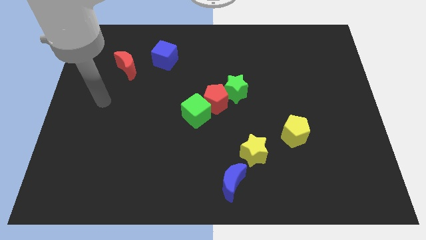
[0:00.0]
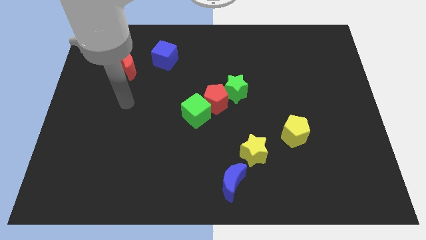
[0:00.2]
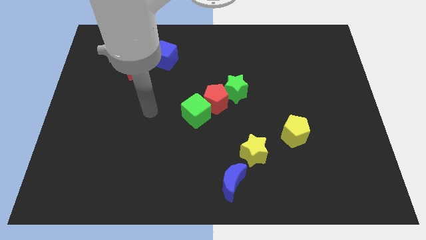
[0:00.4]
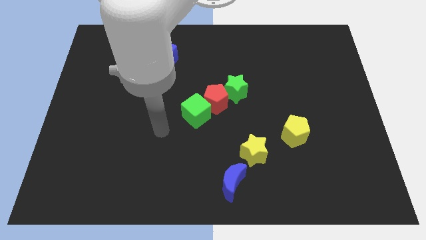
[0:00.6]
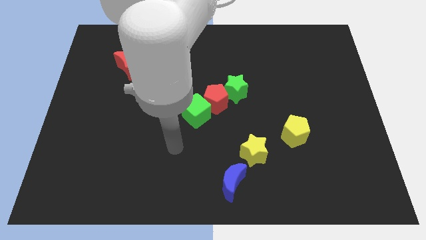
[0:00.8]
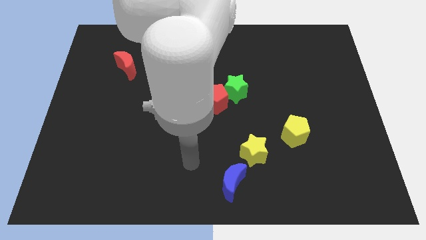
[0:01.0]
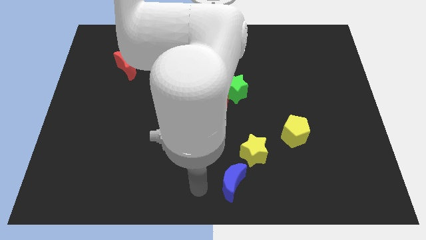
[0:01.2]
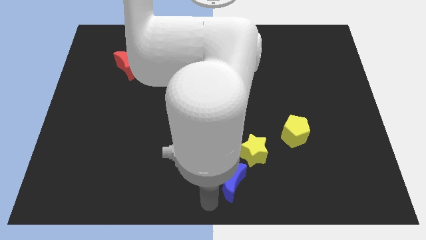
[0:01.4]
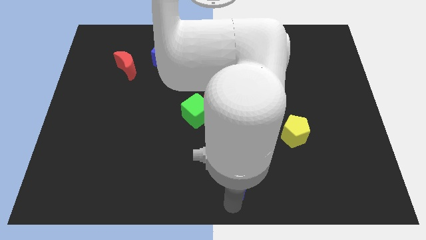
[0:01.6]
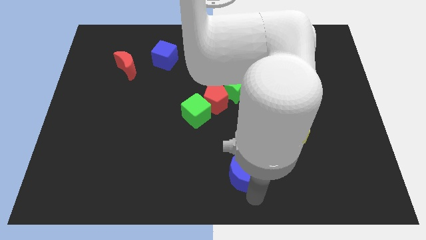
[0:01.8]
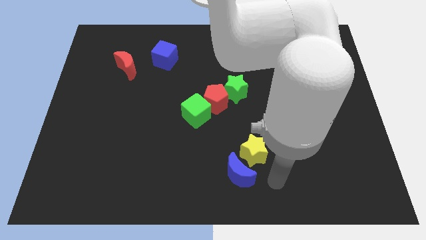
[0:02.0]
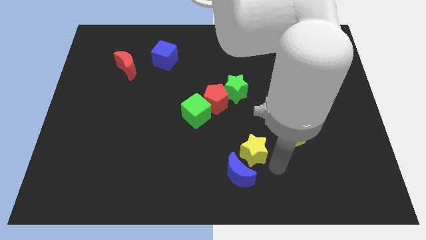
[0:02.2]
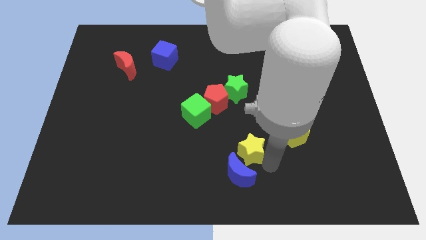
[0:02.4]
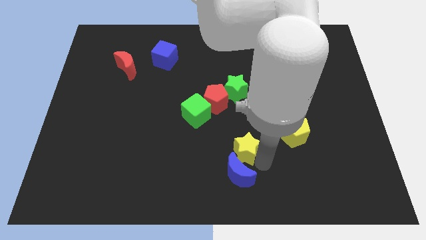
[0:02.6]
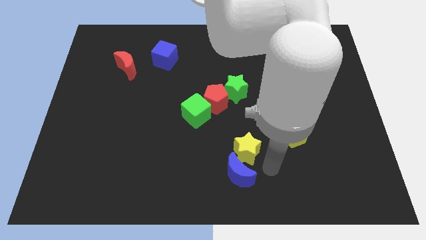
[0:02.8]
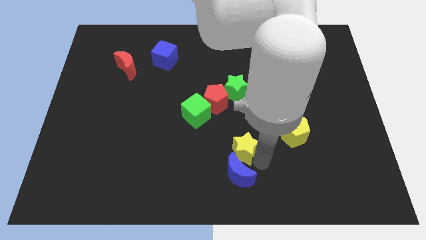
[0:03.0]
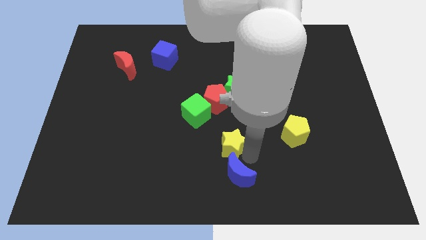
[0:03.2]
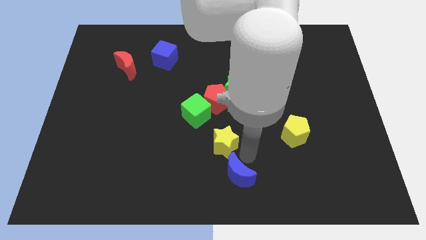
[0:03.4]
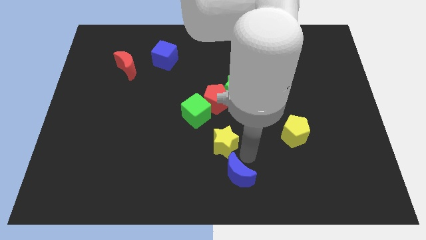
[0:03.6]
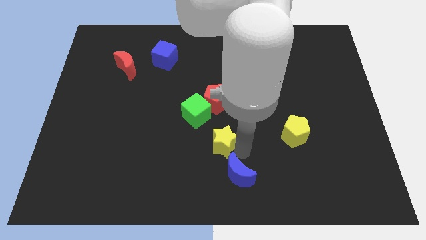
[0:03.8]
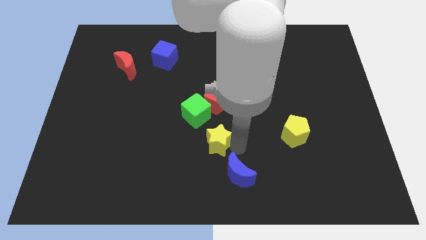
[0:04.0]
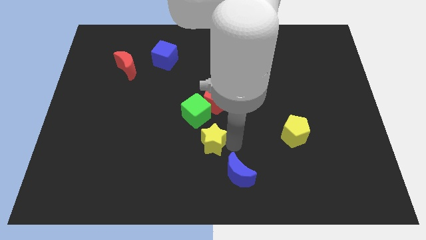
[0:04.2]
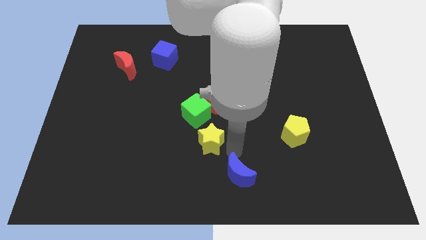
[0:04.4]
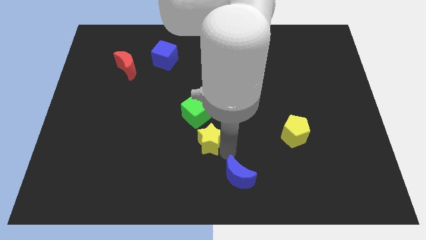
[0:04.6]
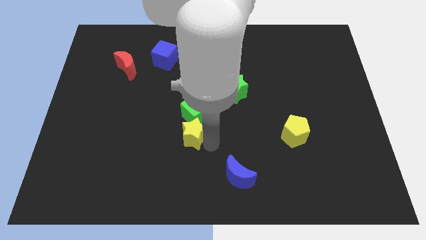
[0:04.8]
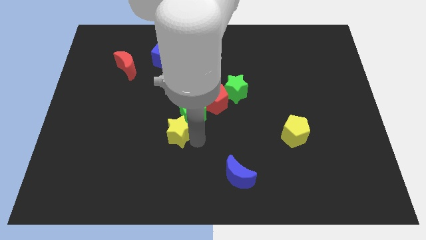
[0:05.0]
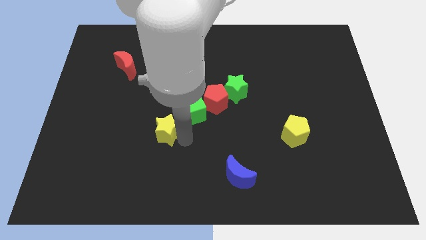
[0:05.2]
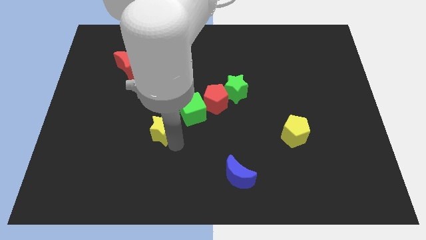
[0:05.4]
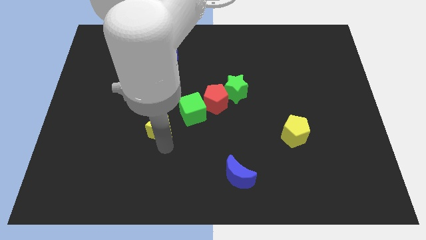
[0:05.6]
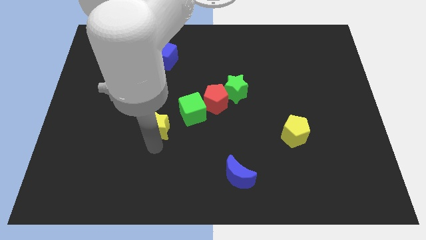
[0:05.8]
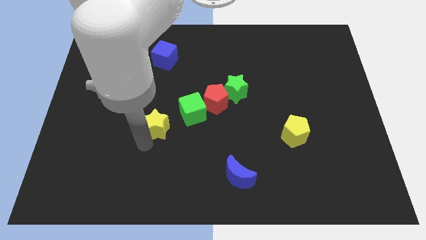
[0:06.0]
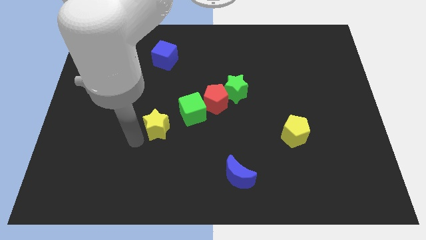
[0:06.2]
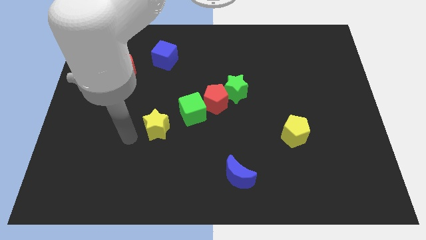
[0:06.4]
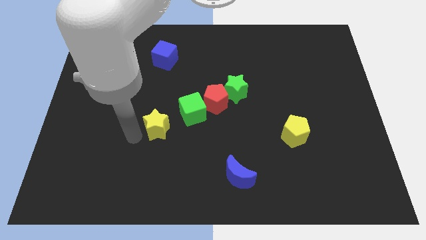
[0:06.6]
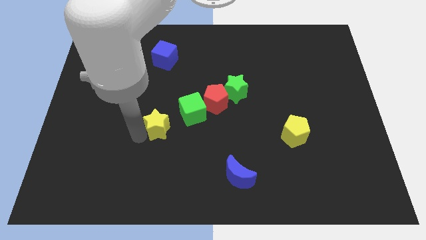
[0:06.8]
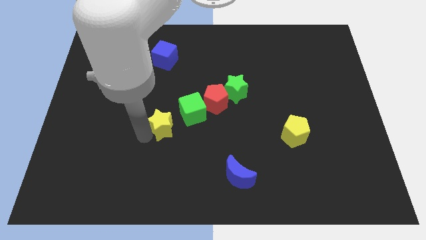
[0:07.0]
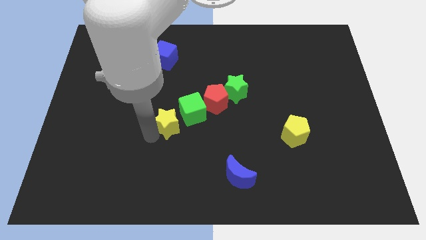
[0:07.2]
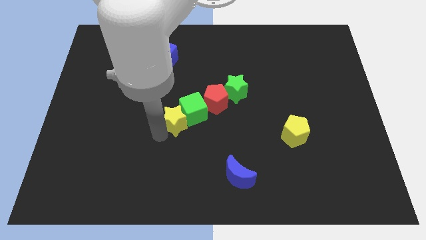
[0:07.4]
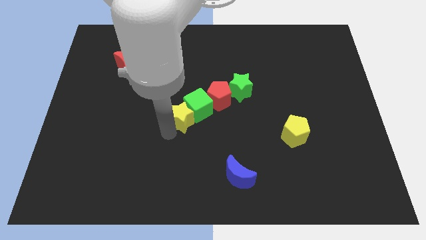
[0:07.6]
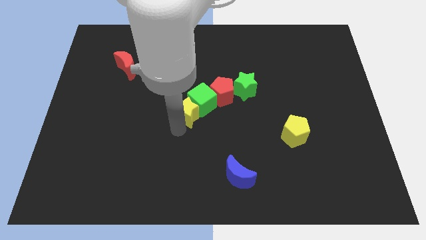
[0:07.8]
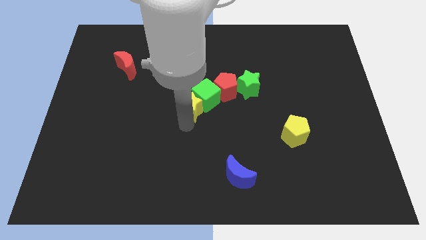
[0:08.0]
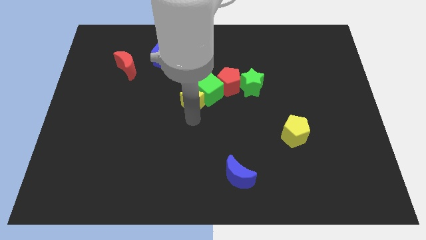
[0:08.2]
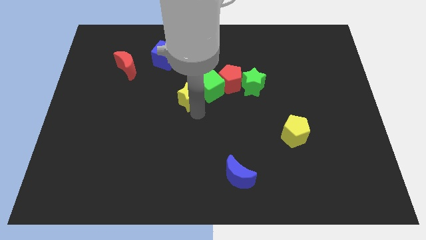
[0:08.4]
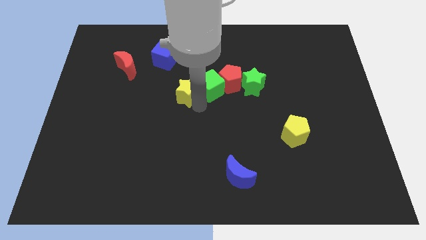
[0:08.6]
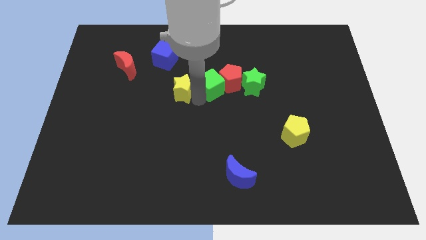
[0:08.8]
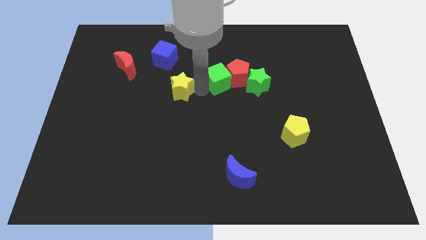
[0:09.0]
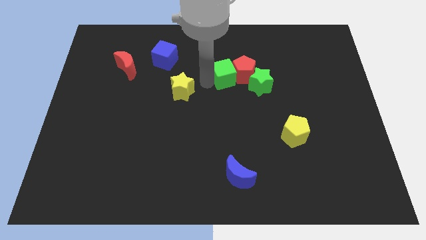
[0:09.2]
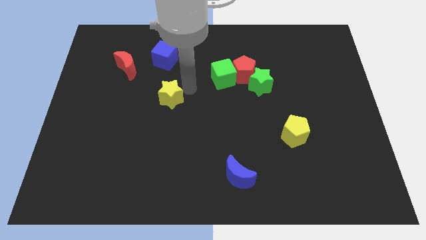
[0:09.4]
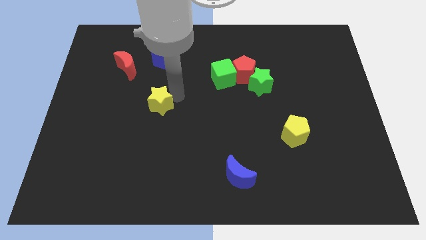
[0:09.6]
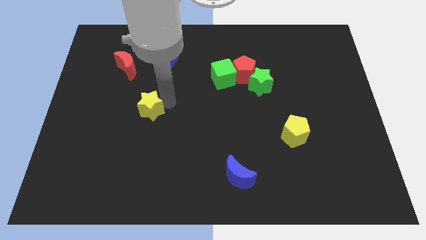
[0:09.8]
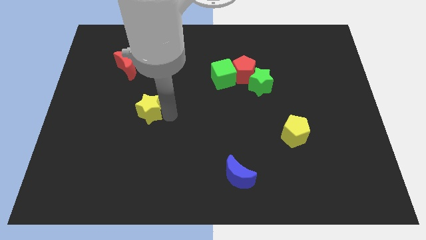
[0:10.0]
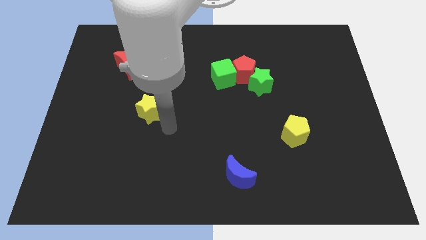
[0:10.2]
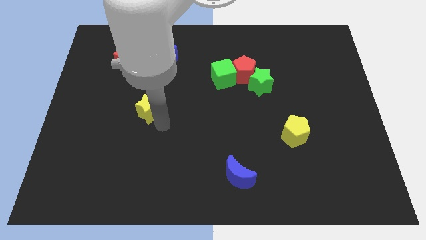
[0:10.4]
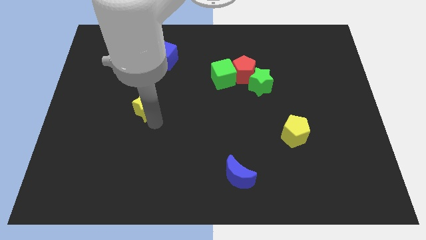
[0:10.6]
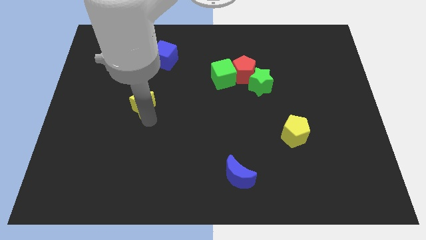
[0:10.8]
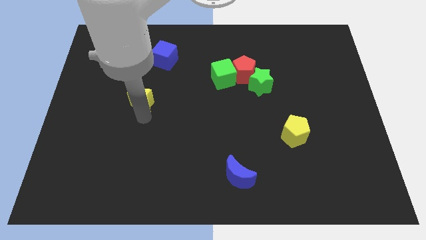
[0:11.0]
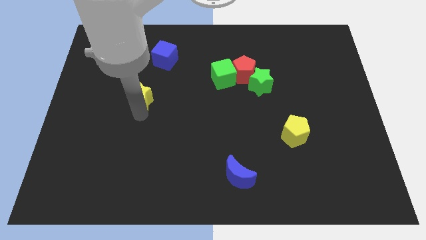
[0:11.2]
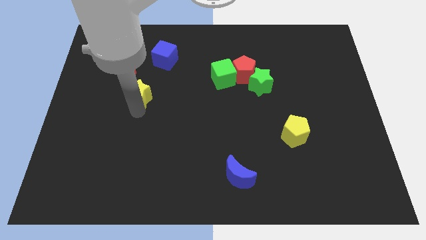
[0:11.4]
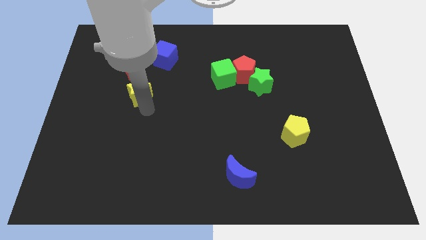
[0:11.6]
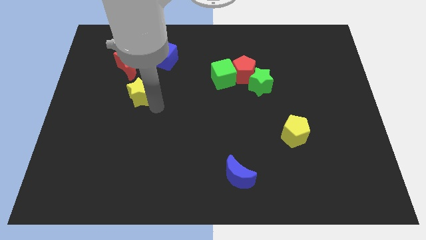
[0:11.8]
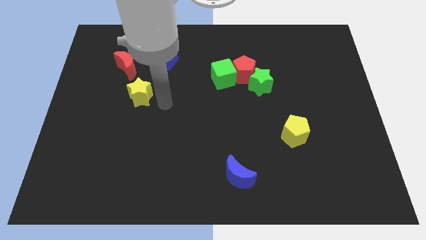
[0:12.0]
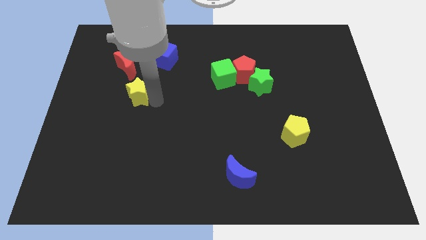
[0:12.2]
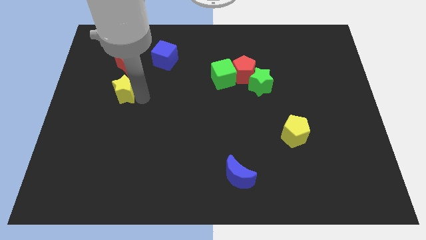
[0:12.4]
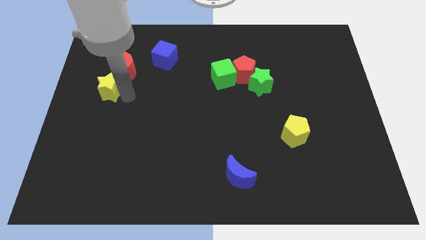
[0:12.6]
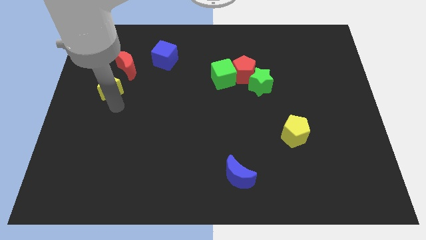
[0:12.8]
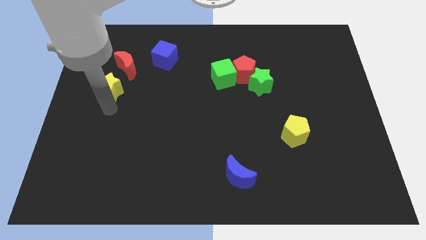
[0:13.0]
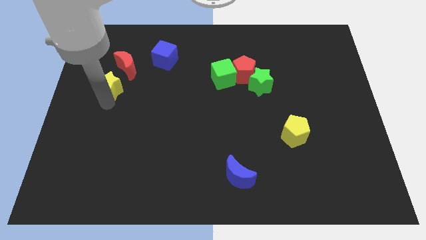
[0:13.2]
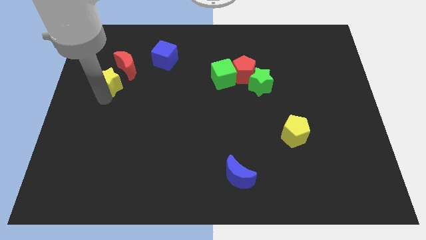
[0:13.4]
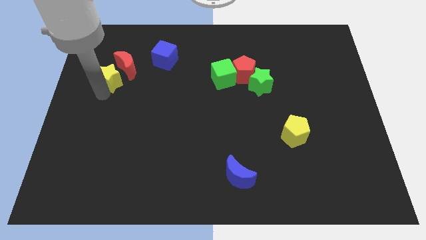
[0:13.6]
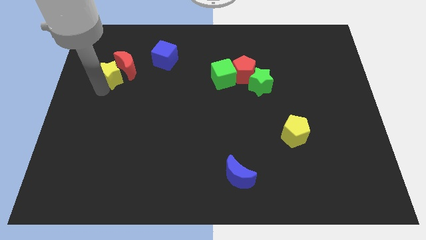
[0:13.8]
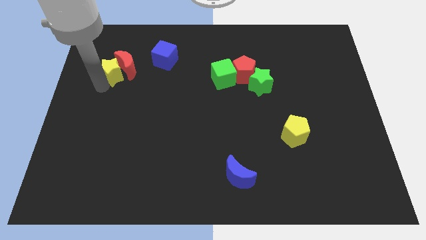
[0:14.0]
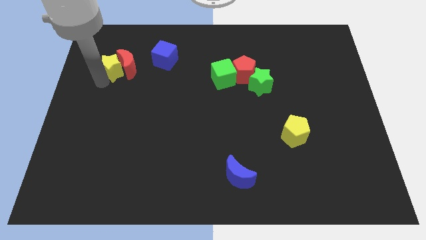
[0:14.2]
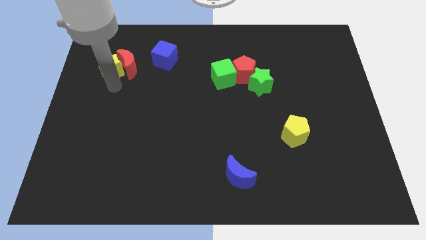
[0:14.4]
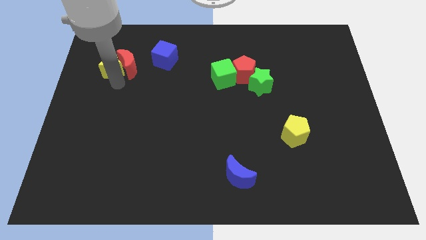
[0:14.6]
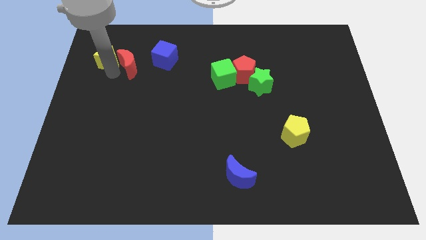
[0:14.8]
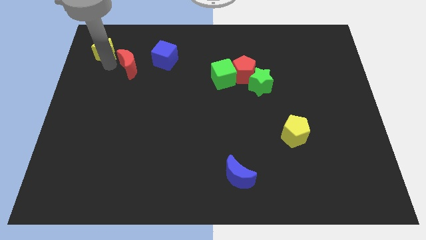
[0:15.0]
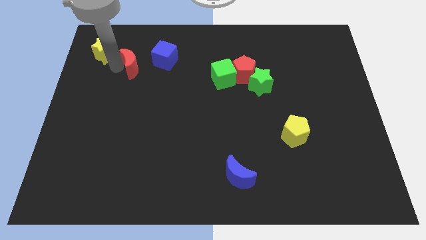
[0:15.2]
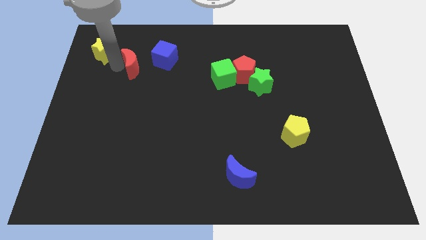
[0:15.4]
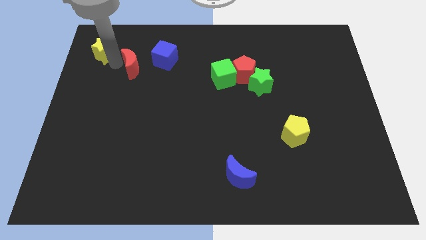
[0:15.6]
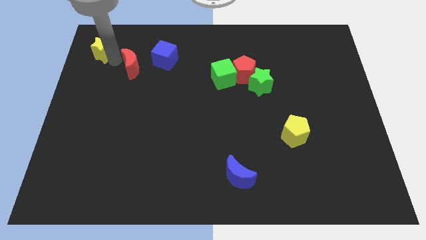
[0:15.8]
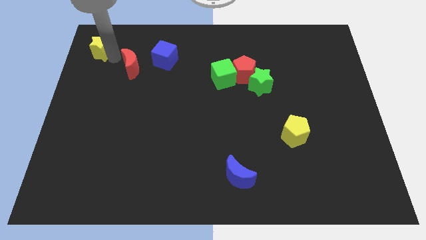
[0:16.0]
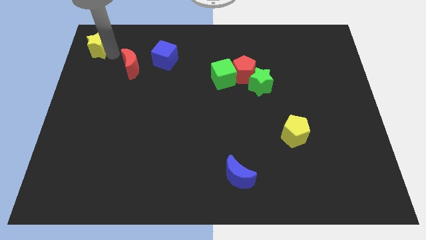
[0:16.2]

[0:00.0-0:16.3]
slide the yellow star to the upper left corner
